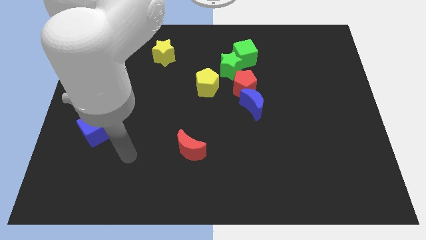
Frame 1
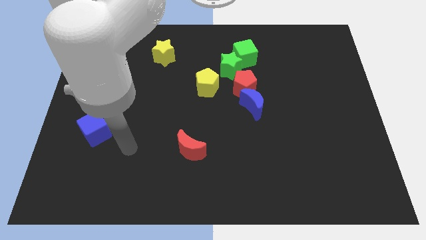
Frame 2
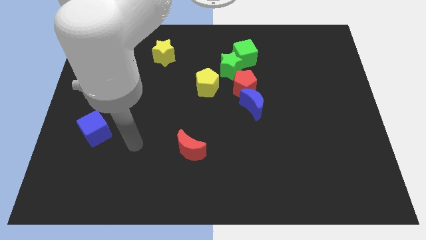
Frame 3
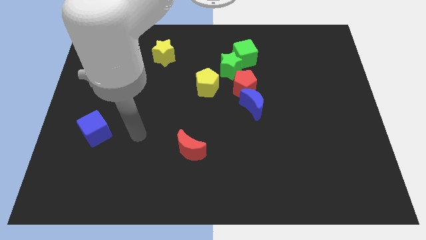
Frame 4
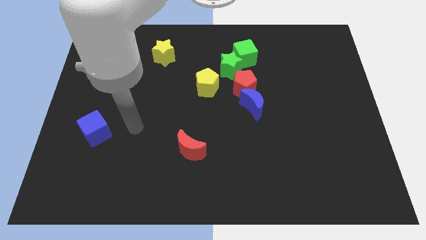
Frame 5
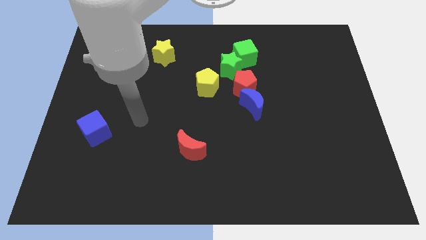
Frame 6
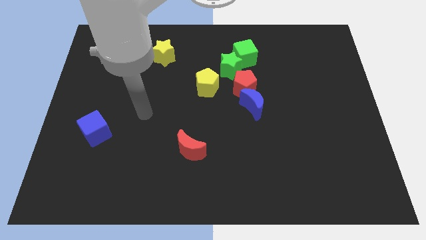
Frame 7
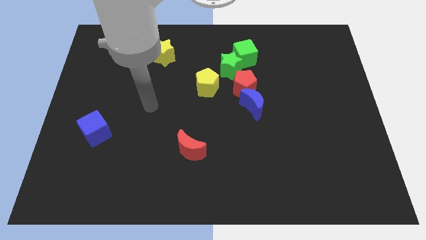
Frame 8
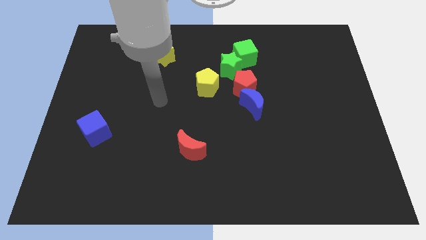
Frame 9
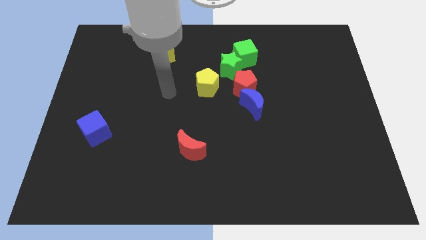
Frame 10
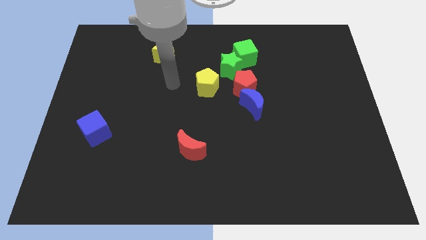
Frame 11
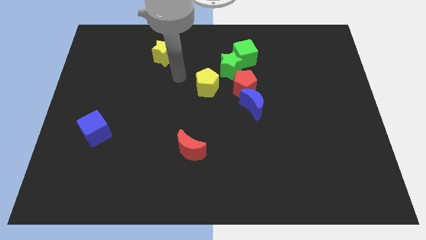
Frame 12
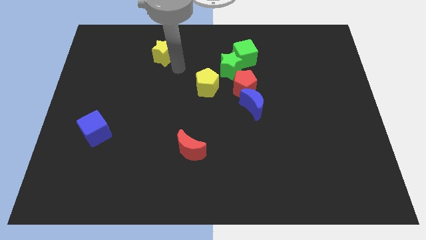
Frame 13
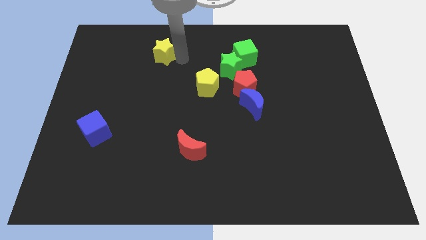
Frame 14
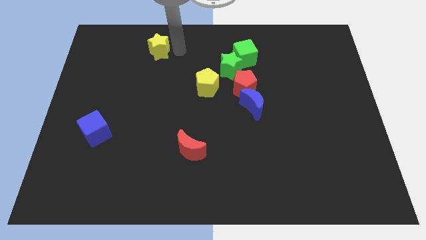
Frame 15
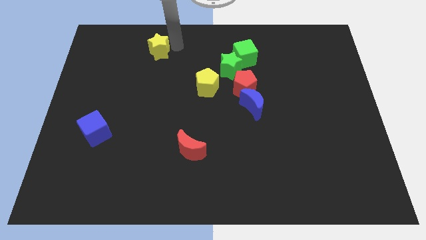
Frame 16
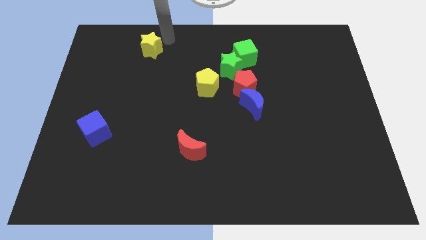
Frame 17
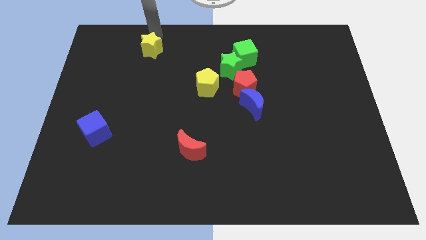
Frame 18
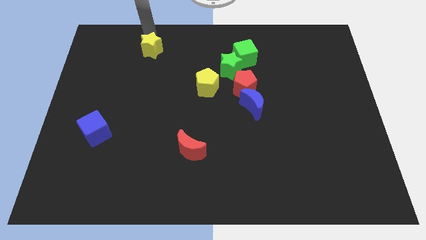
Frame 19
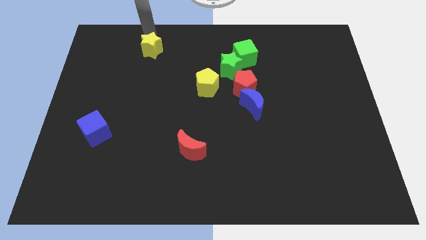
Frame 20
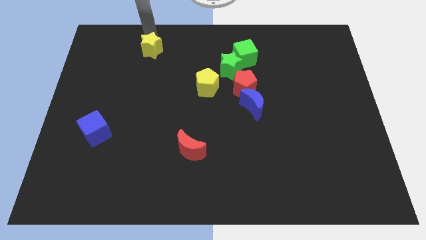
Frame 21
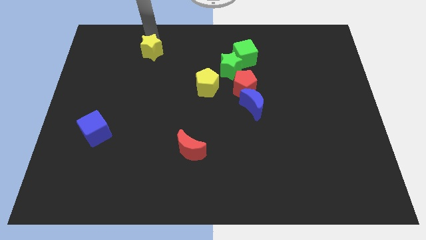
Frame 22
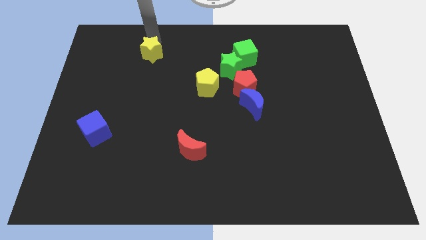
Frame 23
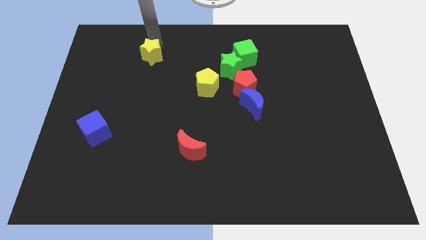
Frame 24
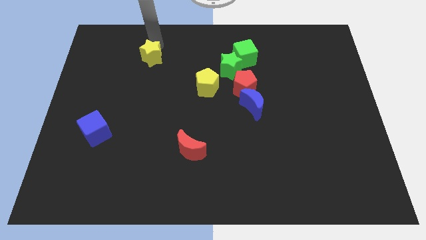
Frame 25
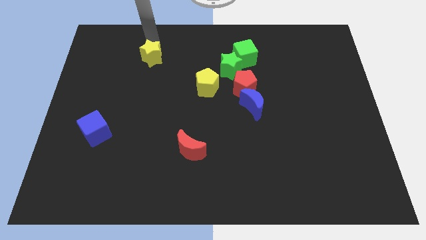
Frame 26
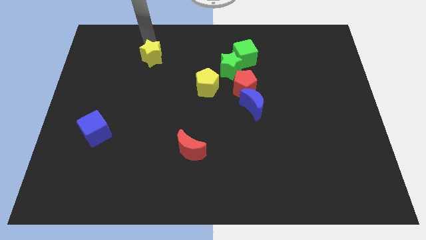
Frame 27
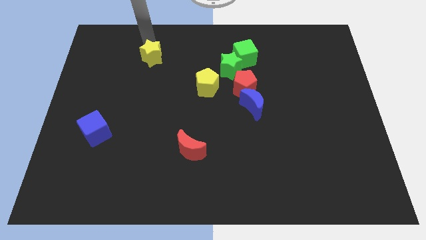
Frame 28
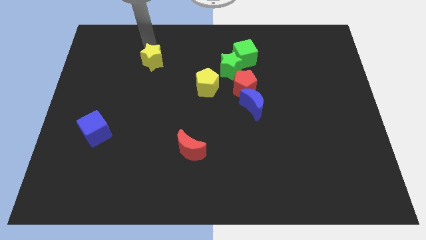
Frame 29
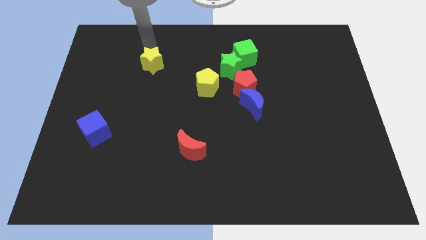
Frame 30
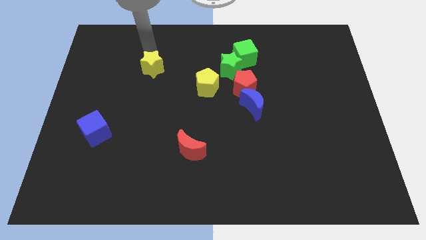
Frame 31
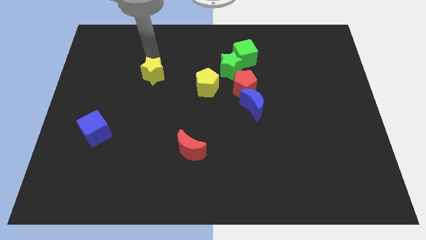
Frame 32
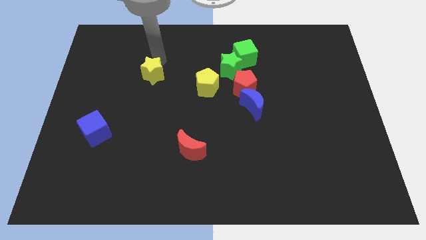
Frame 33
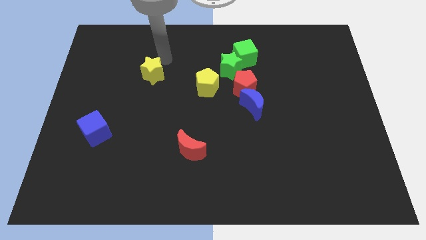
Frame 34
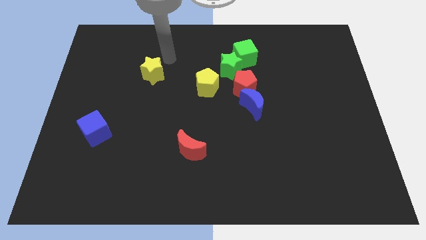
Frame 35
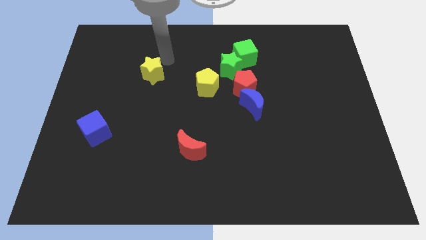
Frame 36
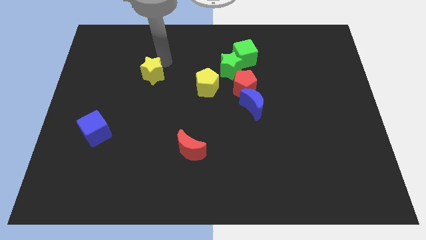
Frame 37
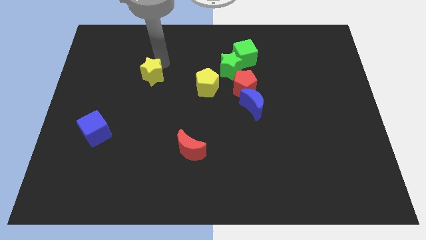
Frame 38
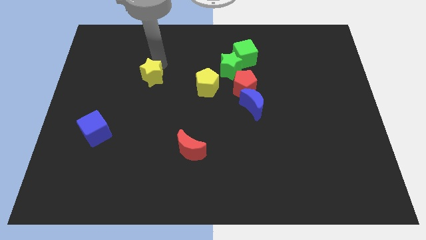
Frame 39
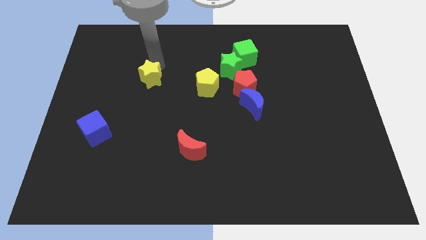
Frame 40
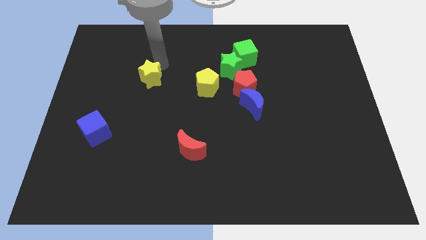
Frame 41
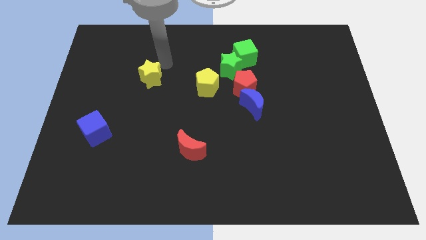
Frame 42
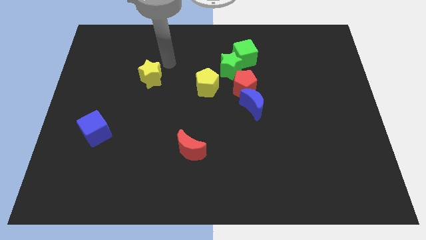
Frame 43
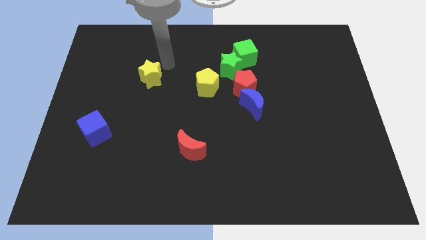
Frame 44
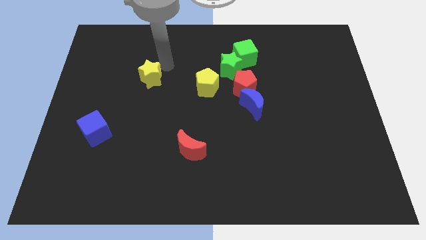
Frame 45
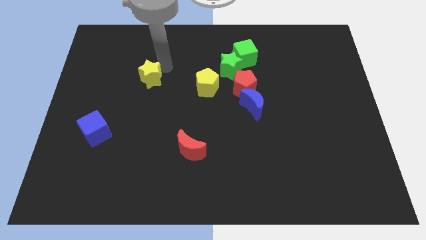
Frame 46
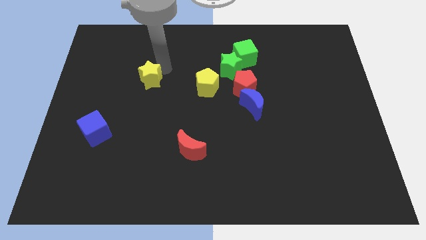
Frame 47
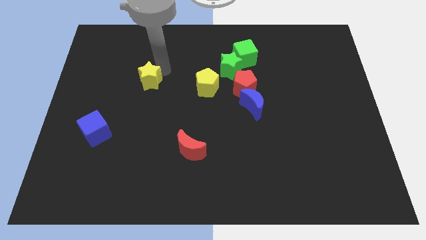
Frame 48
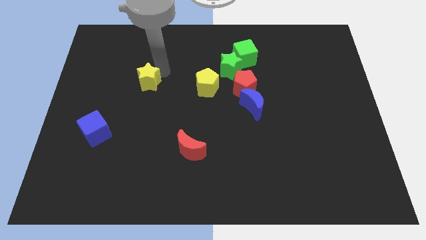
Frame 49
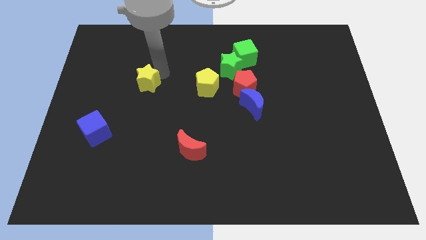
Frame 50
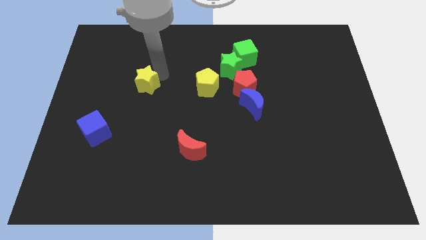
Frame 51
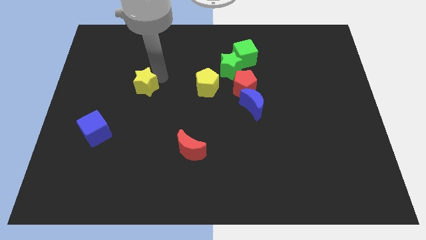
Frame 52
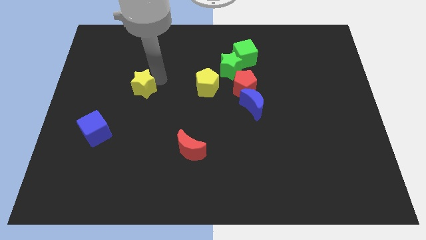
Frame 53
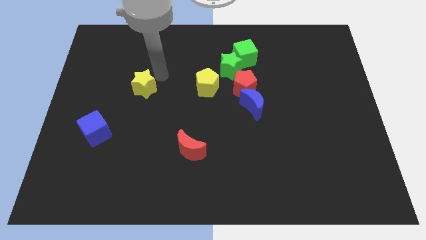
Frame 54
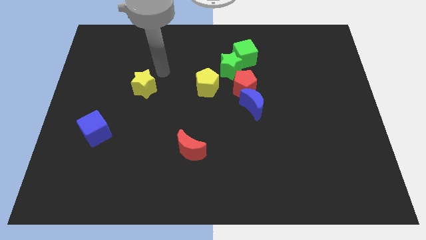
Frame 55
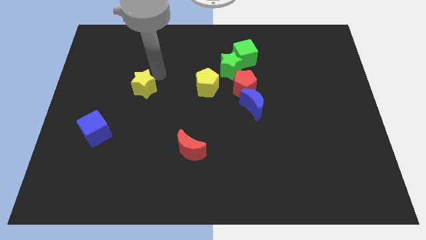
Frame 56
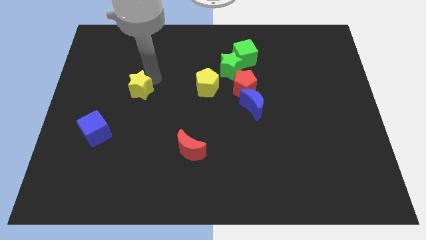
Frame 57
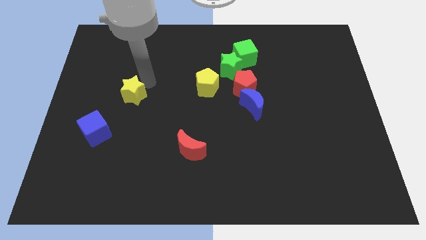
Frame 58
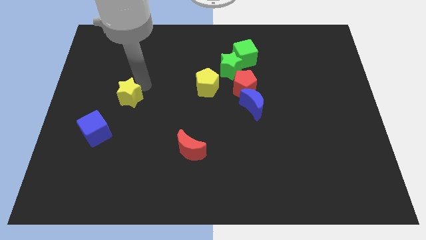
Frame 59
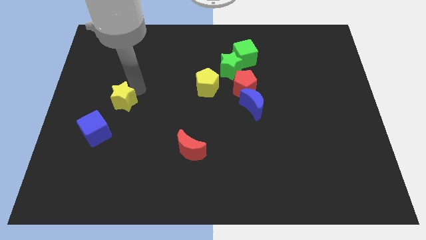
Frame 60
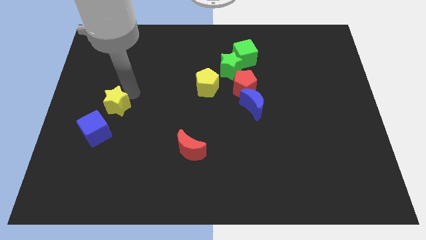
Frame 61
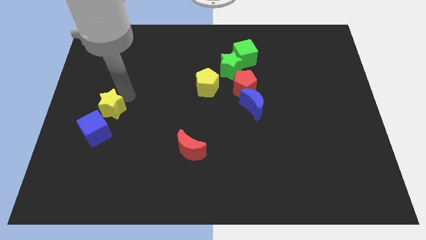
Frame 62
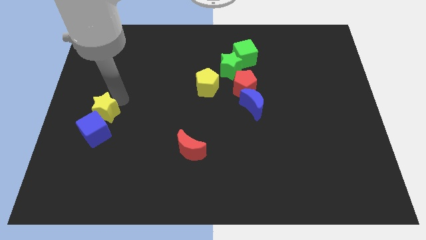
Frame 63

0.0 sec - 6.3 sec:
move the yellow star to the blue cube

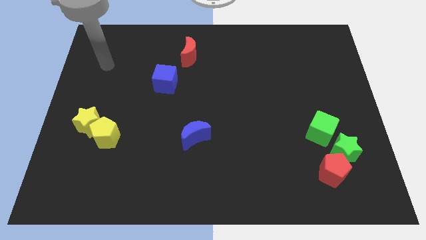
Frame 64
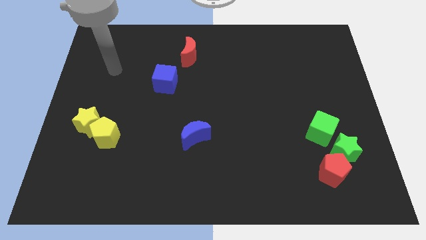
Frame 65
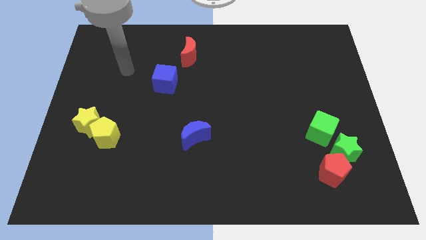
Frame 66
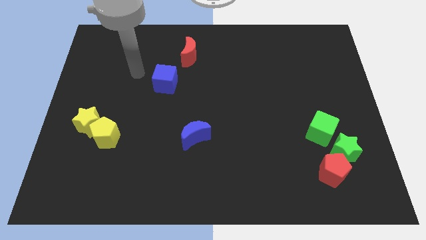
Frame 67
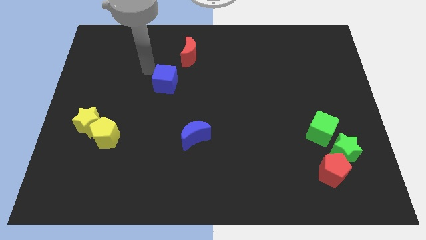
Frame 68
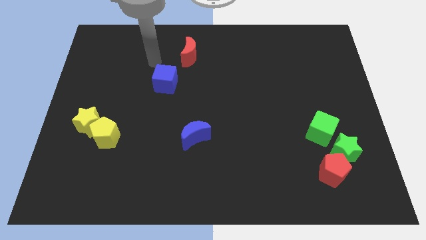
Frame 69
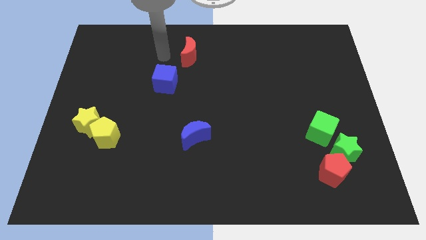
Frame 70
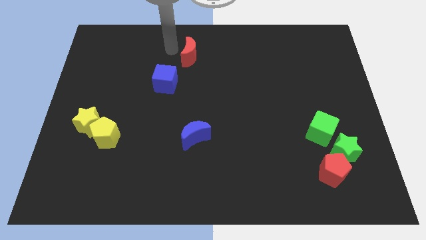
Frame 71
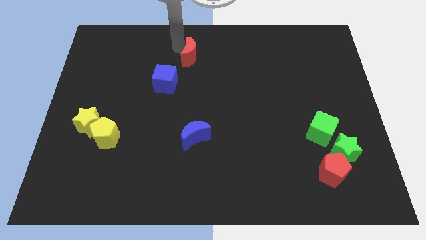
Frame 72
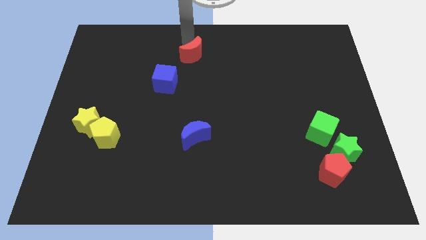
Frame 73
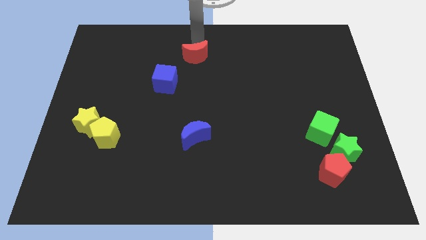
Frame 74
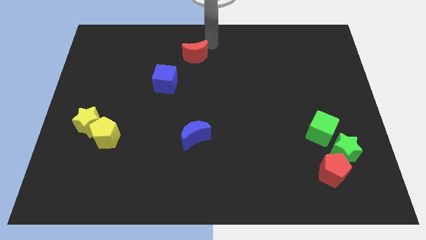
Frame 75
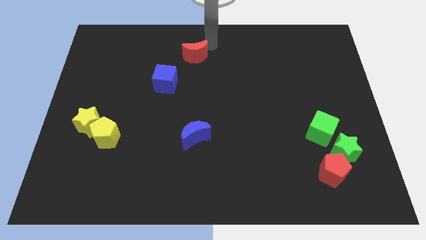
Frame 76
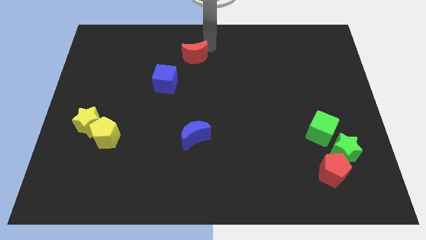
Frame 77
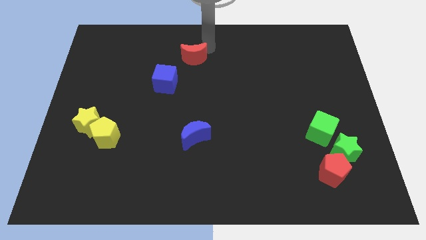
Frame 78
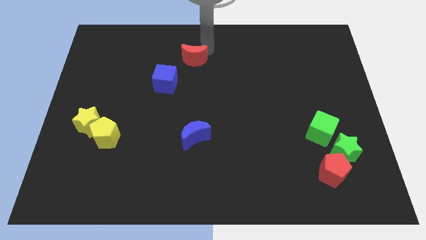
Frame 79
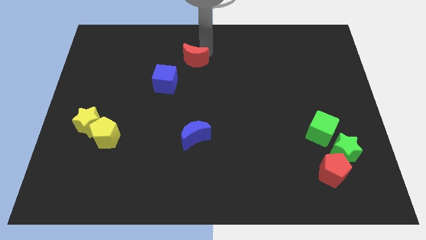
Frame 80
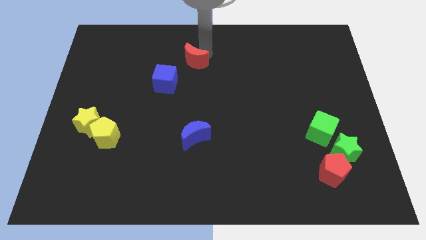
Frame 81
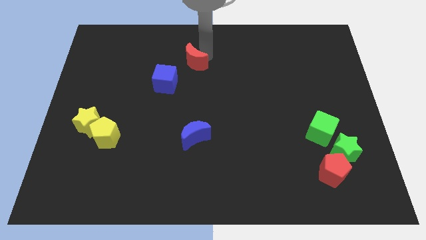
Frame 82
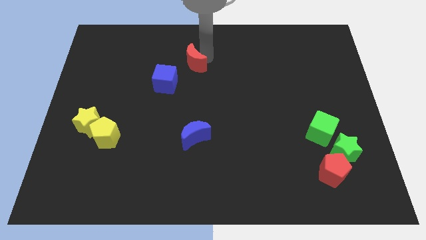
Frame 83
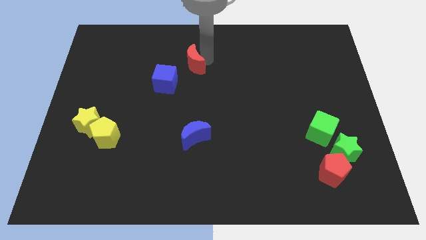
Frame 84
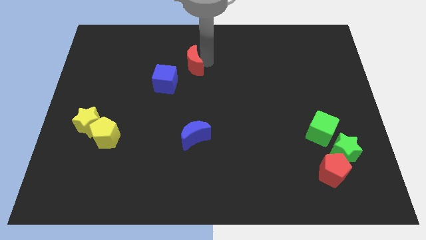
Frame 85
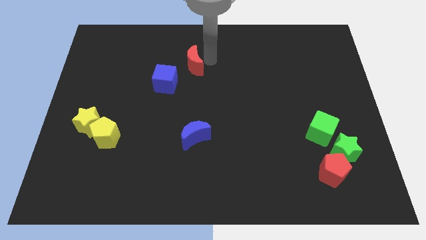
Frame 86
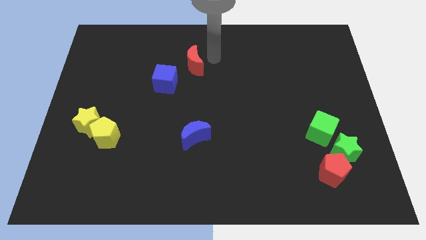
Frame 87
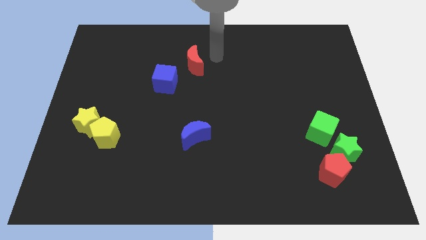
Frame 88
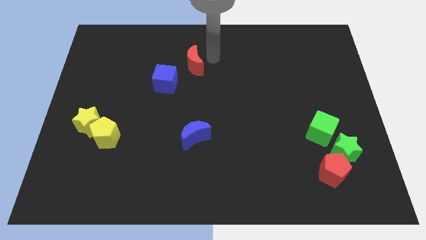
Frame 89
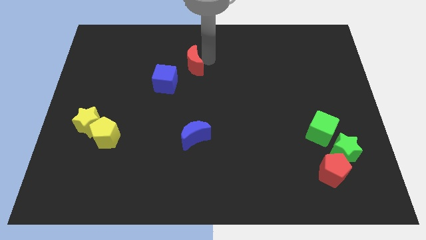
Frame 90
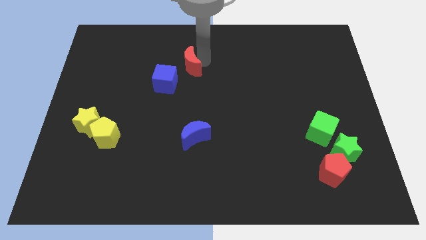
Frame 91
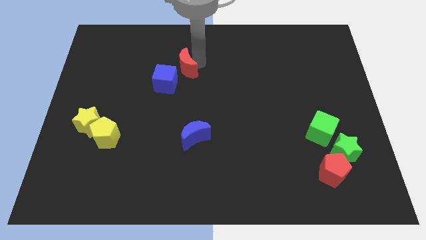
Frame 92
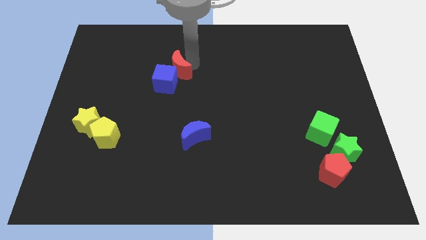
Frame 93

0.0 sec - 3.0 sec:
push the red moon close to the blue cube
